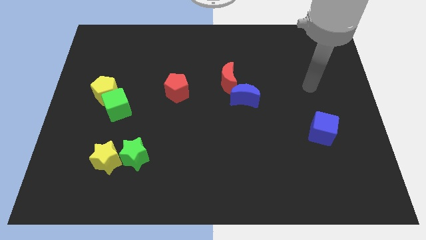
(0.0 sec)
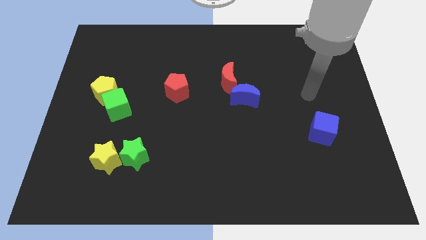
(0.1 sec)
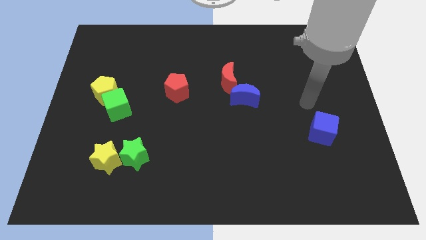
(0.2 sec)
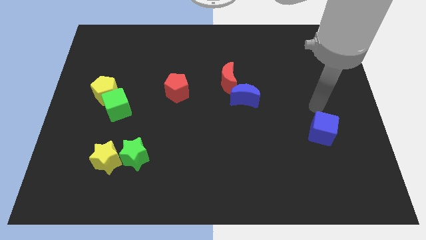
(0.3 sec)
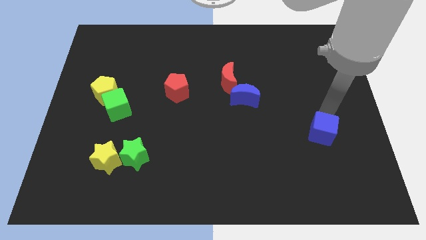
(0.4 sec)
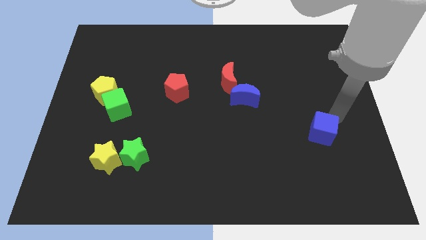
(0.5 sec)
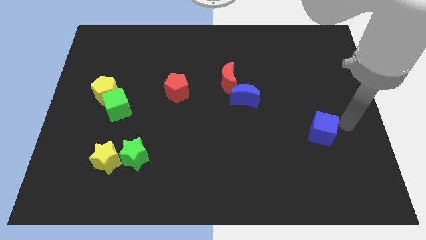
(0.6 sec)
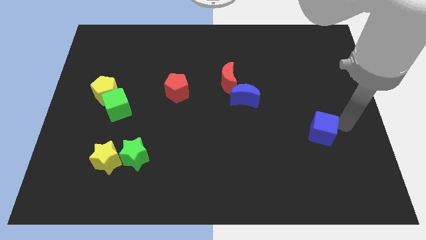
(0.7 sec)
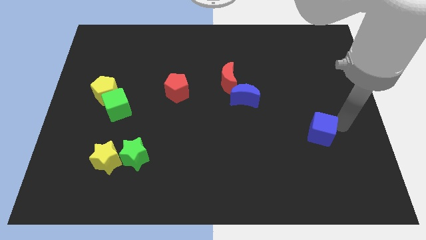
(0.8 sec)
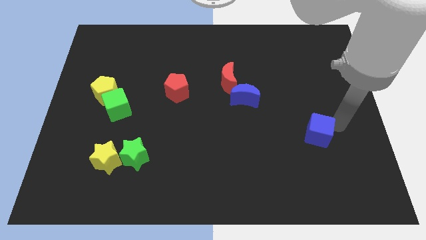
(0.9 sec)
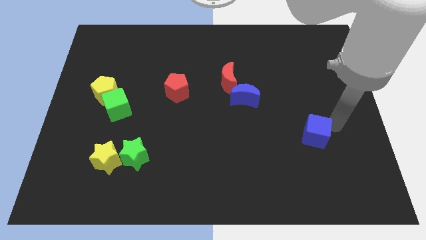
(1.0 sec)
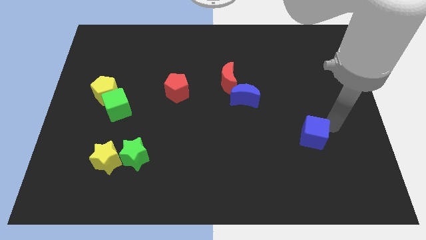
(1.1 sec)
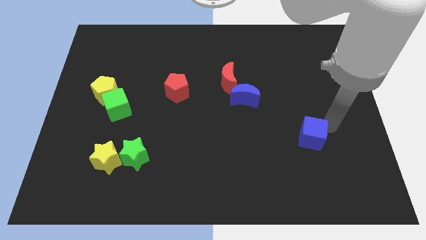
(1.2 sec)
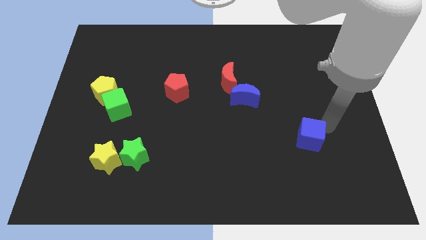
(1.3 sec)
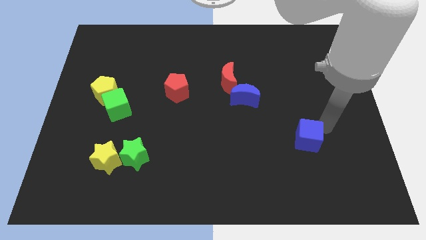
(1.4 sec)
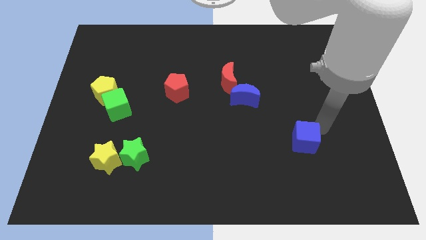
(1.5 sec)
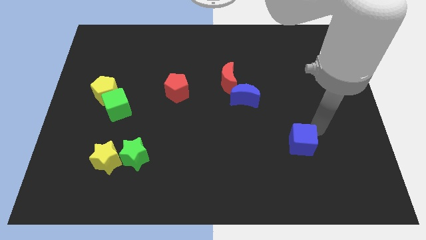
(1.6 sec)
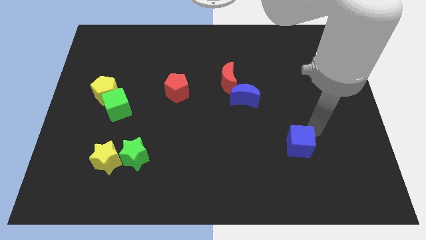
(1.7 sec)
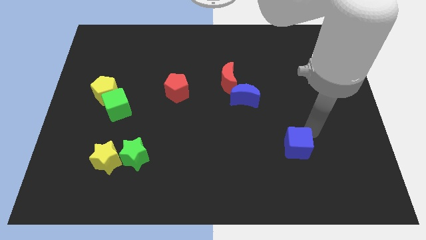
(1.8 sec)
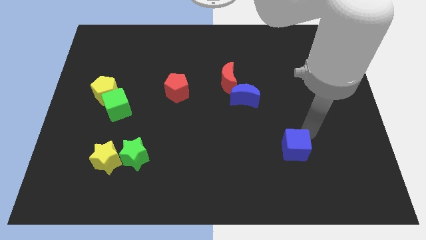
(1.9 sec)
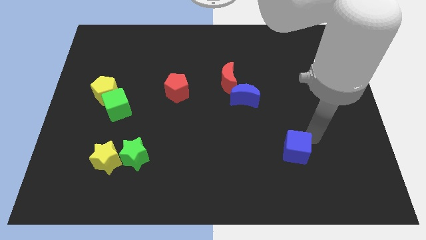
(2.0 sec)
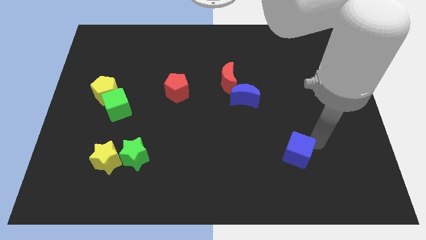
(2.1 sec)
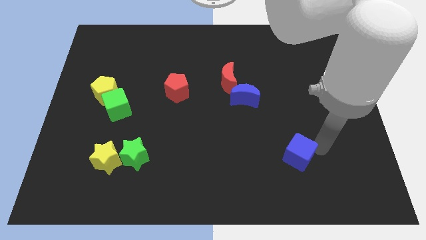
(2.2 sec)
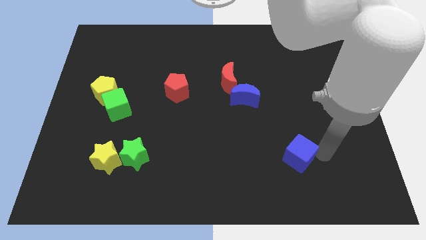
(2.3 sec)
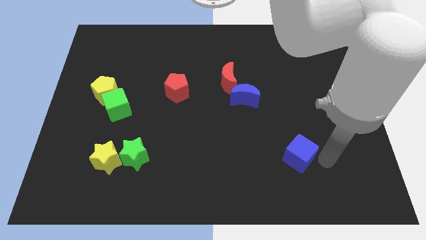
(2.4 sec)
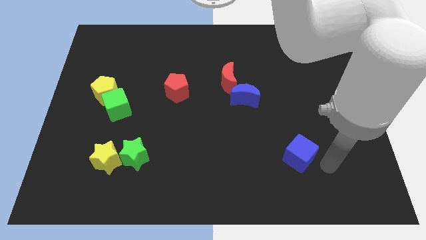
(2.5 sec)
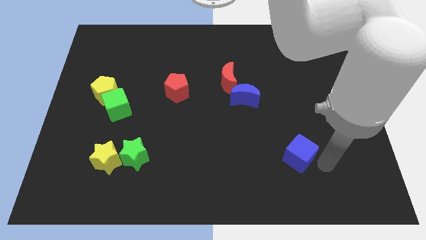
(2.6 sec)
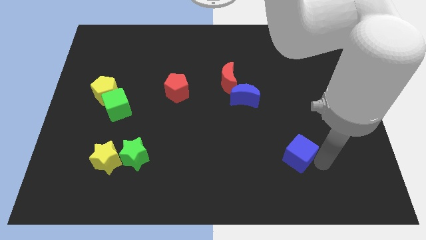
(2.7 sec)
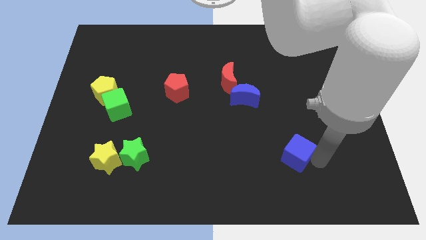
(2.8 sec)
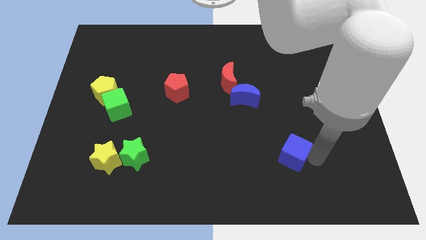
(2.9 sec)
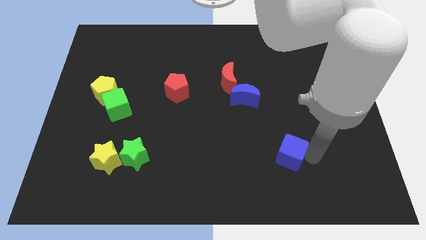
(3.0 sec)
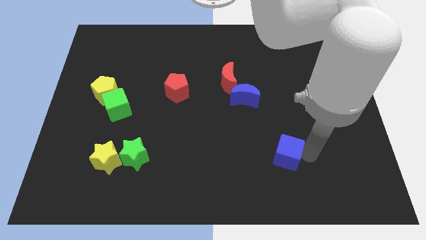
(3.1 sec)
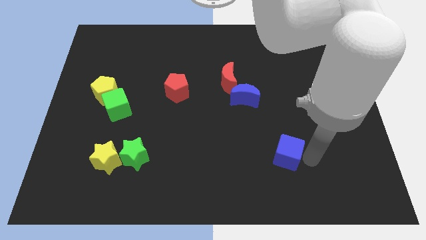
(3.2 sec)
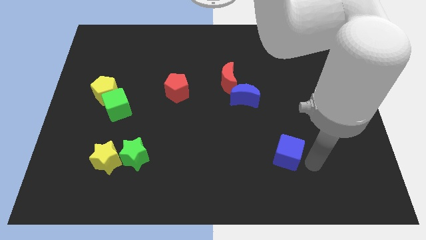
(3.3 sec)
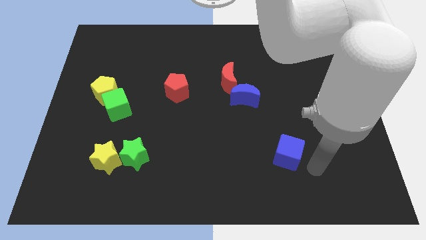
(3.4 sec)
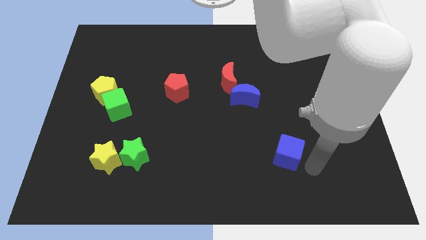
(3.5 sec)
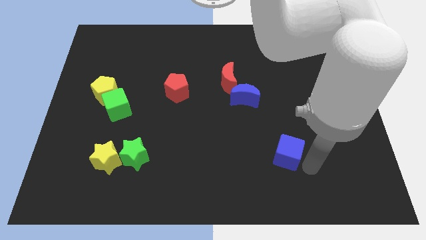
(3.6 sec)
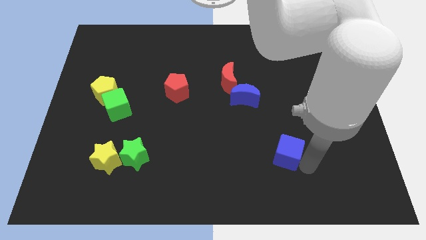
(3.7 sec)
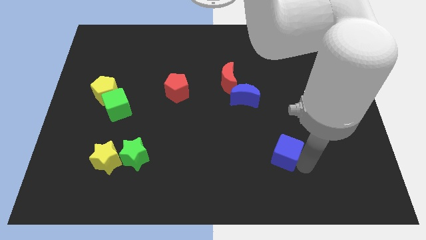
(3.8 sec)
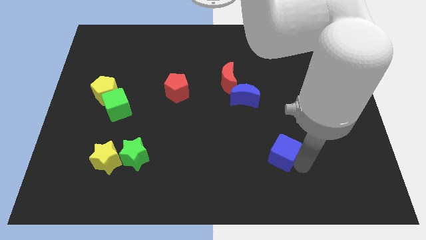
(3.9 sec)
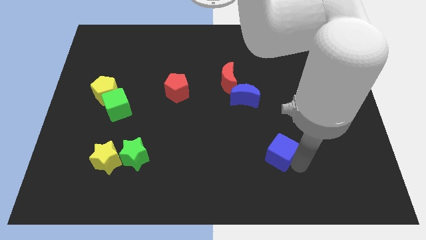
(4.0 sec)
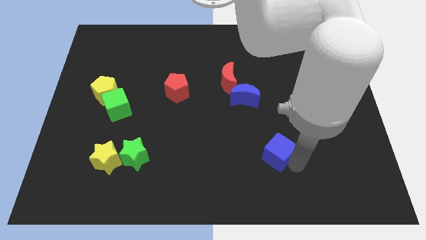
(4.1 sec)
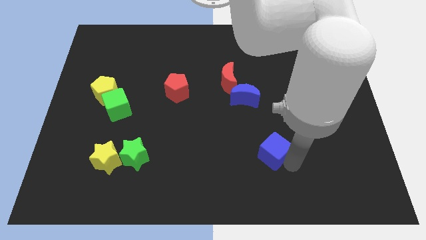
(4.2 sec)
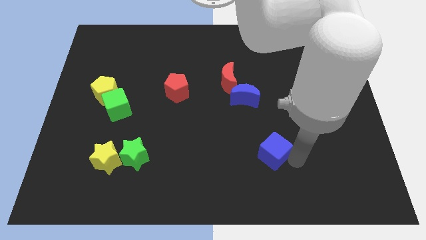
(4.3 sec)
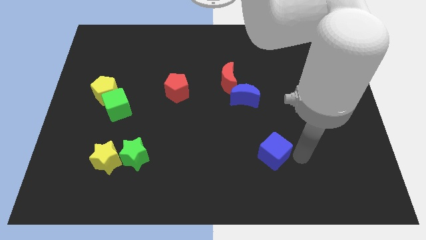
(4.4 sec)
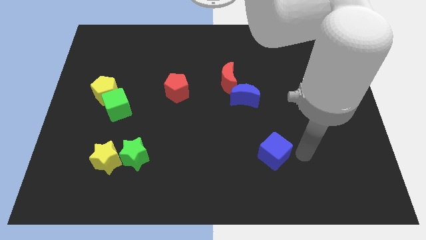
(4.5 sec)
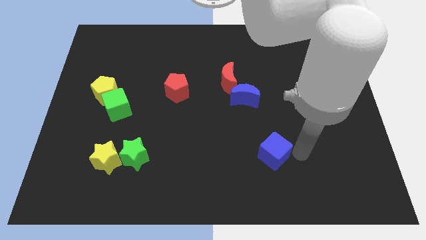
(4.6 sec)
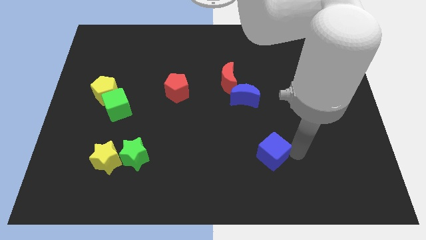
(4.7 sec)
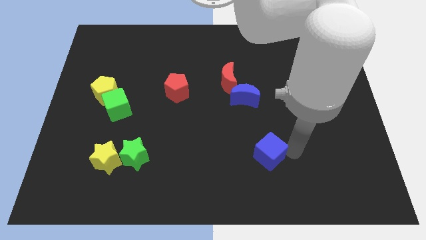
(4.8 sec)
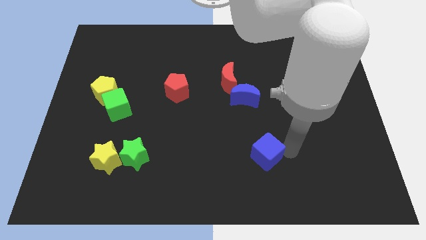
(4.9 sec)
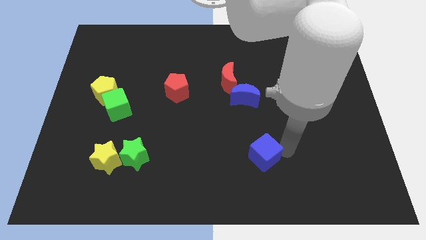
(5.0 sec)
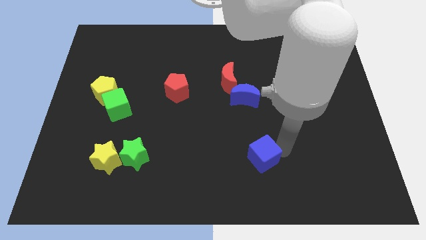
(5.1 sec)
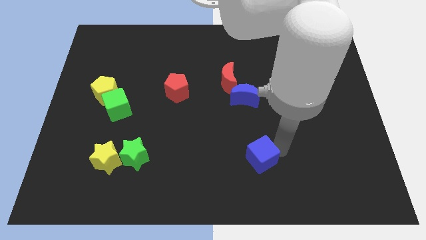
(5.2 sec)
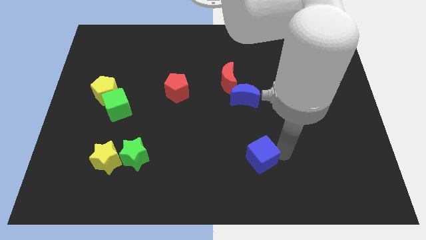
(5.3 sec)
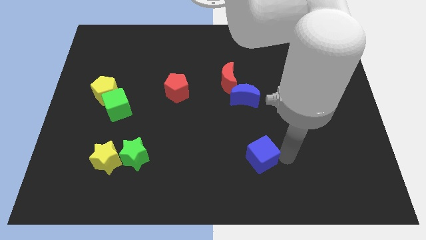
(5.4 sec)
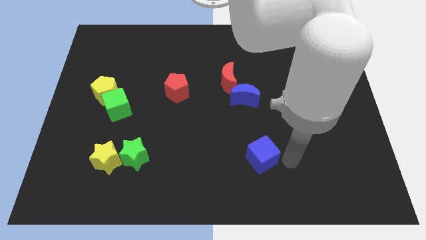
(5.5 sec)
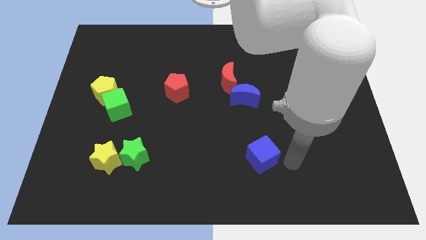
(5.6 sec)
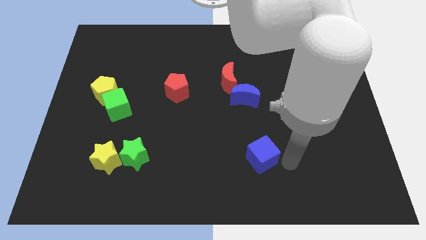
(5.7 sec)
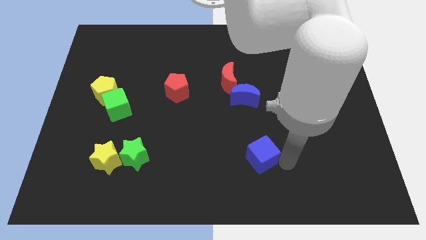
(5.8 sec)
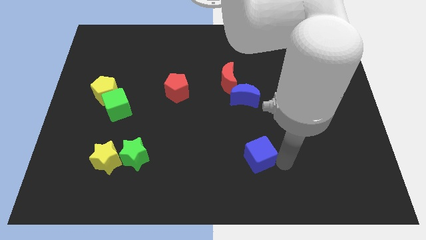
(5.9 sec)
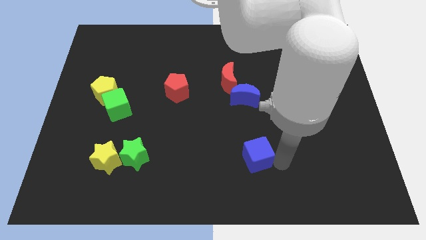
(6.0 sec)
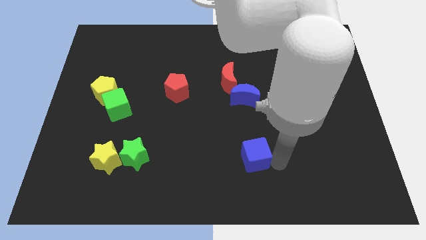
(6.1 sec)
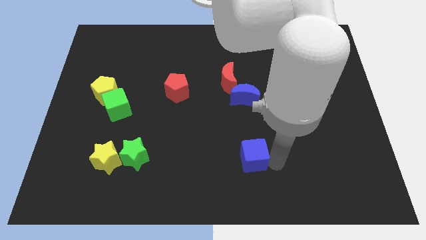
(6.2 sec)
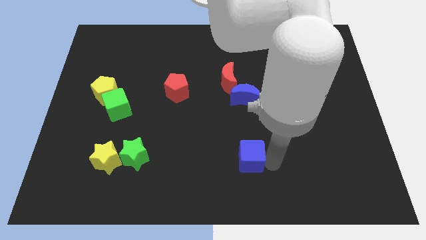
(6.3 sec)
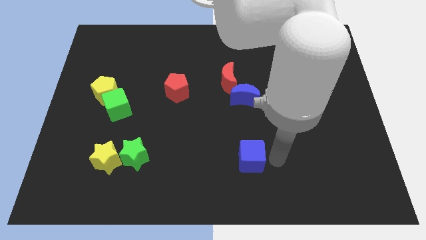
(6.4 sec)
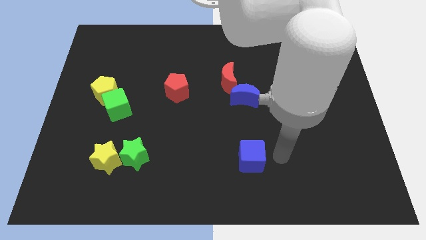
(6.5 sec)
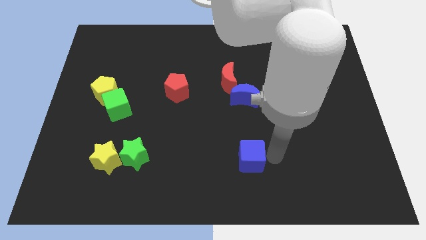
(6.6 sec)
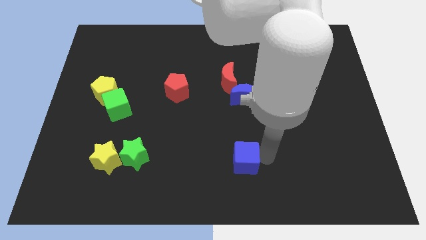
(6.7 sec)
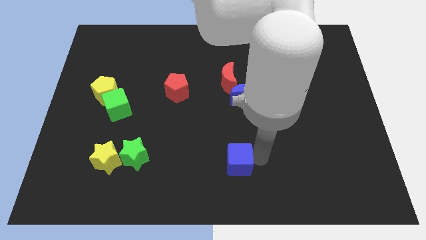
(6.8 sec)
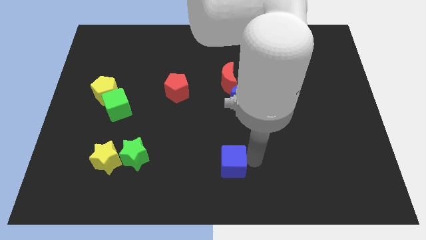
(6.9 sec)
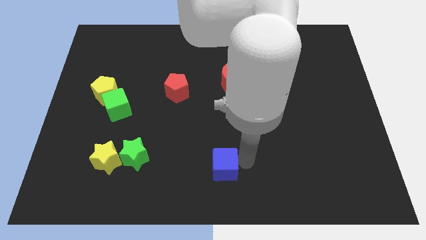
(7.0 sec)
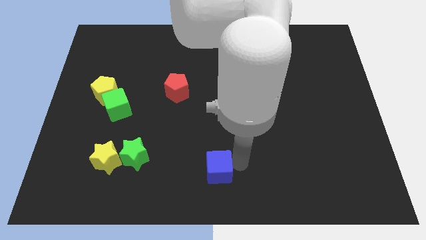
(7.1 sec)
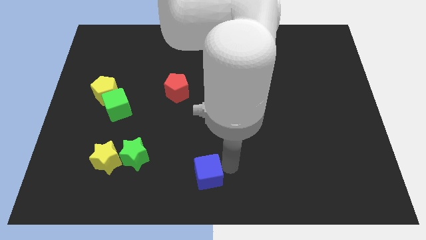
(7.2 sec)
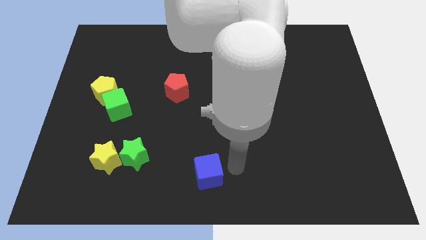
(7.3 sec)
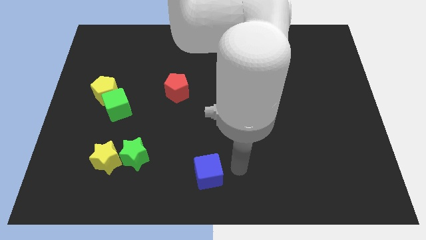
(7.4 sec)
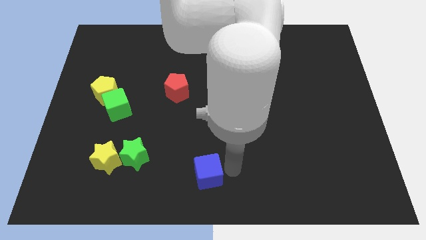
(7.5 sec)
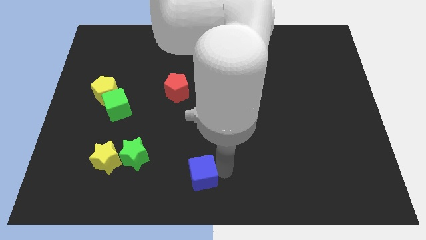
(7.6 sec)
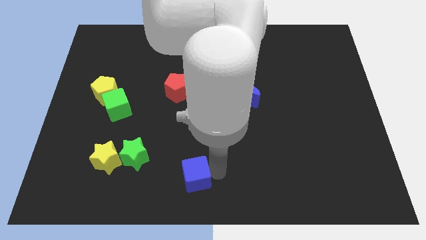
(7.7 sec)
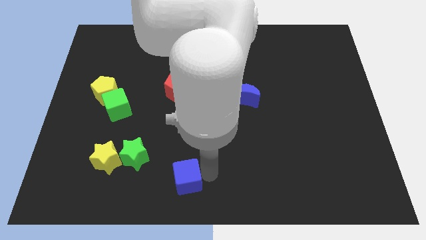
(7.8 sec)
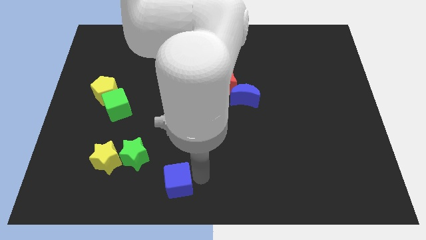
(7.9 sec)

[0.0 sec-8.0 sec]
push the blue cube to the bottom right of the green star

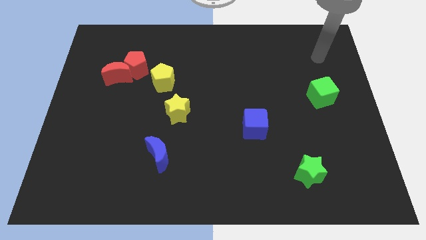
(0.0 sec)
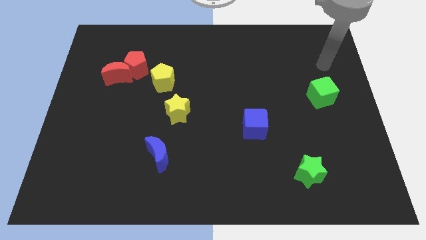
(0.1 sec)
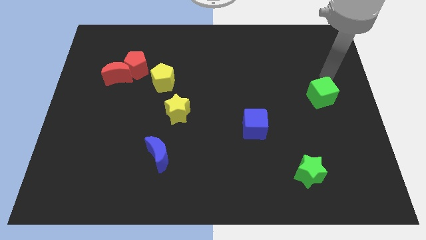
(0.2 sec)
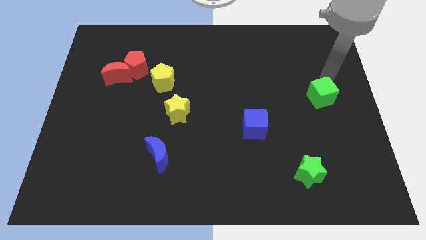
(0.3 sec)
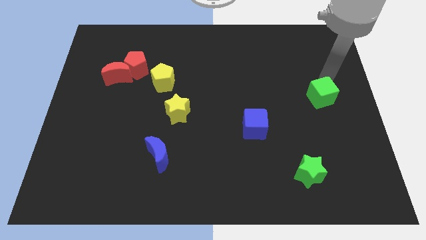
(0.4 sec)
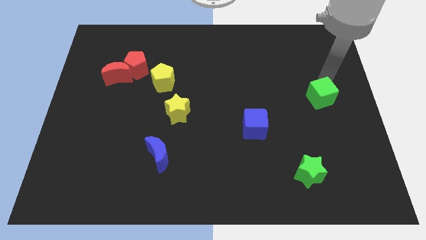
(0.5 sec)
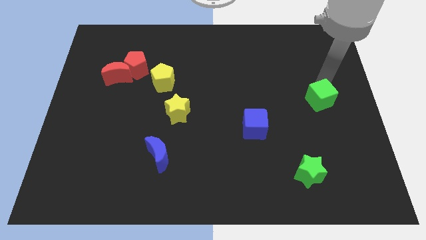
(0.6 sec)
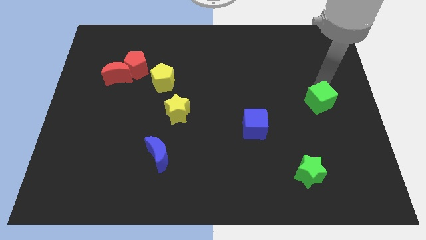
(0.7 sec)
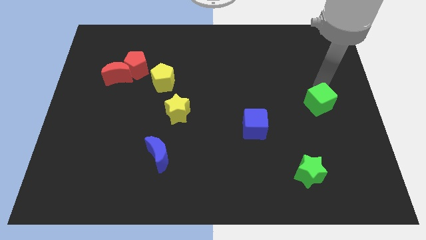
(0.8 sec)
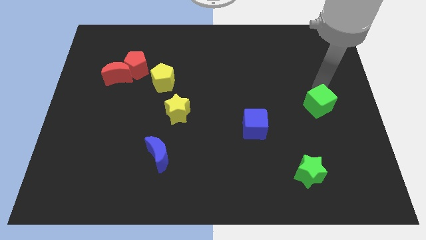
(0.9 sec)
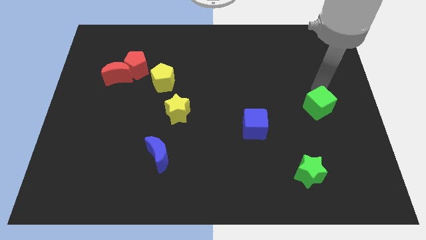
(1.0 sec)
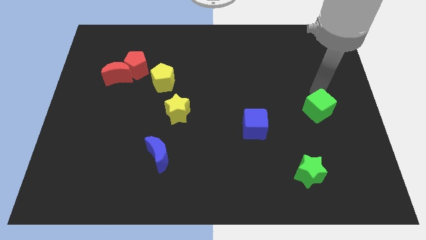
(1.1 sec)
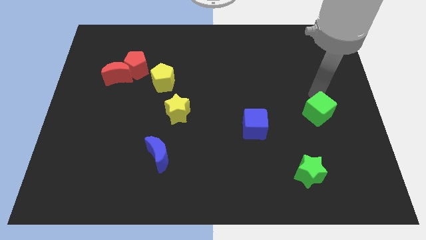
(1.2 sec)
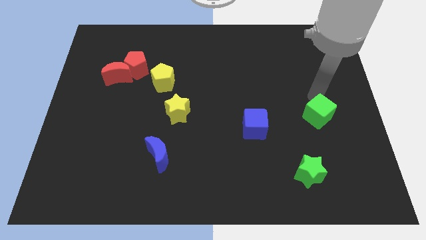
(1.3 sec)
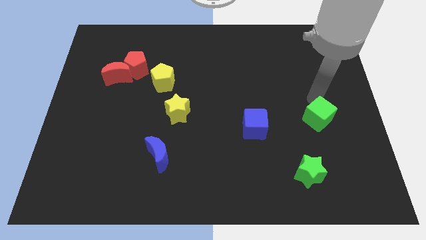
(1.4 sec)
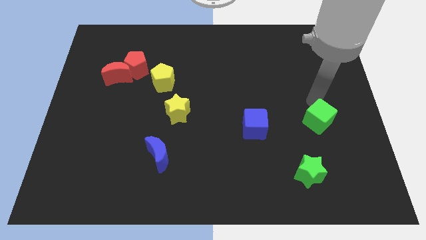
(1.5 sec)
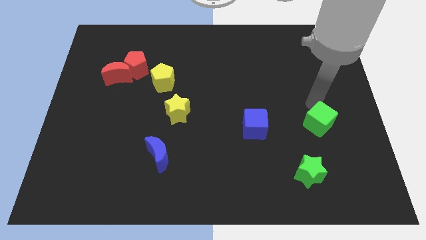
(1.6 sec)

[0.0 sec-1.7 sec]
move the green cube to the top side of the green star
